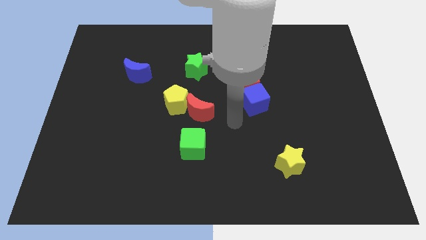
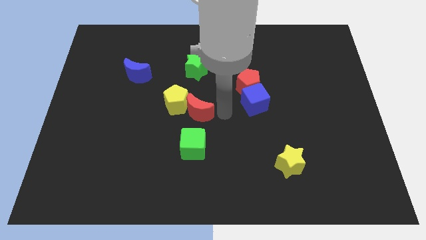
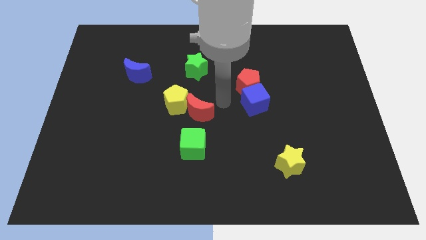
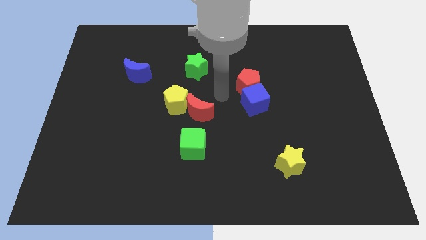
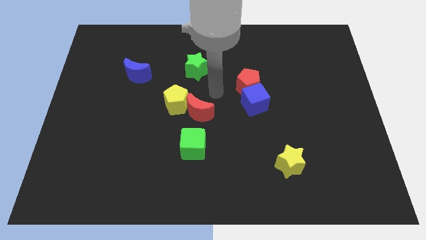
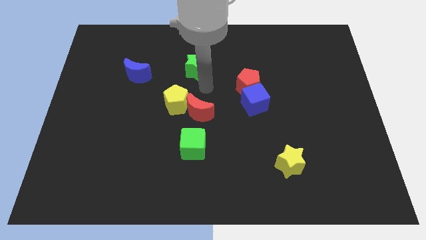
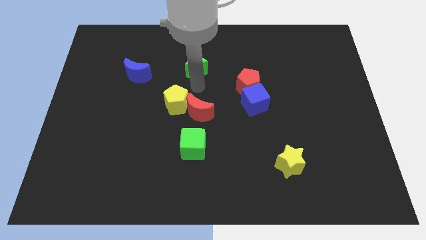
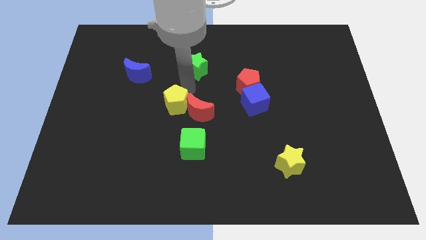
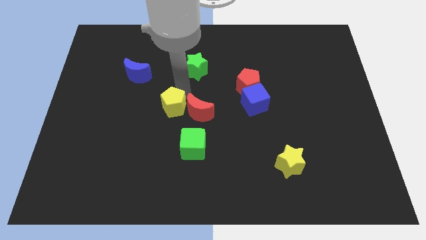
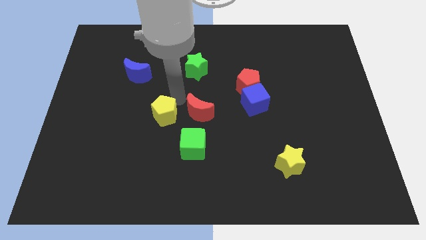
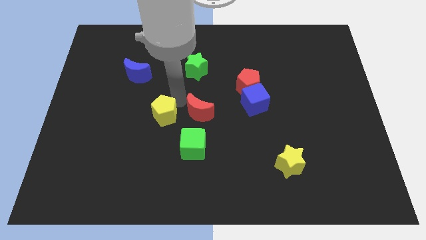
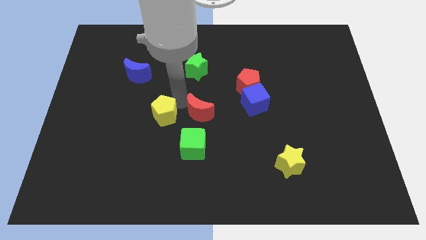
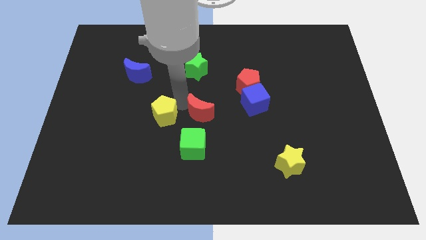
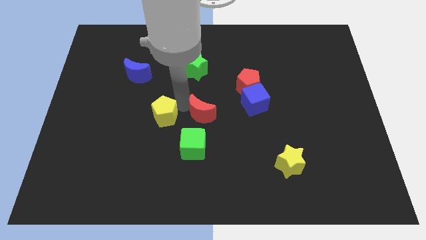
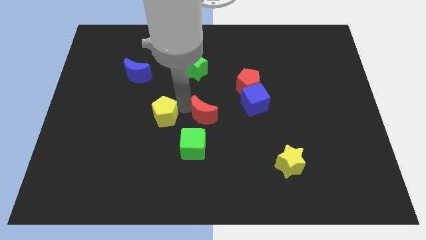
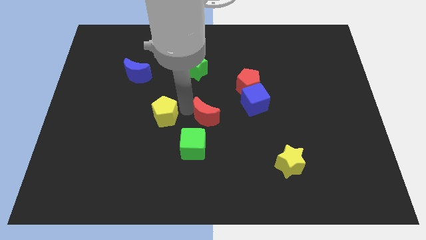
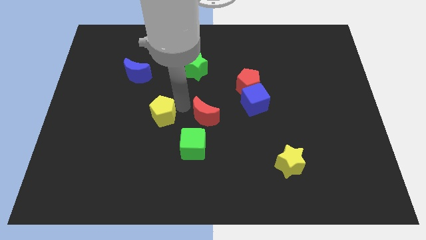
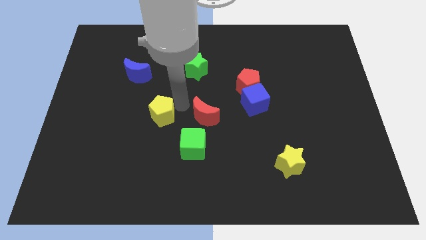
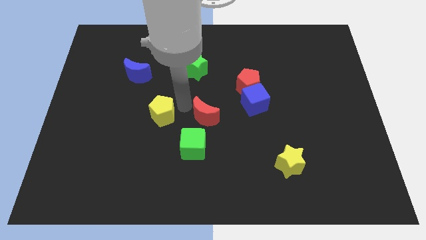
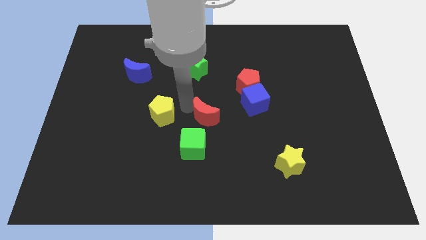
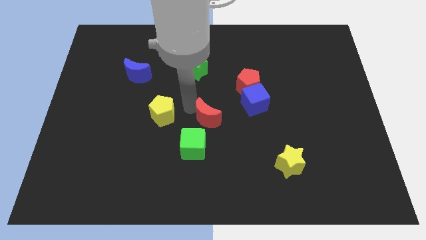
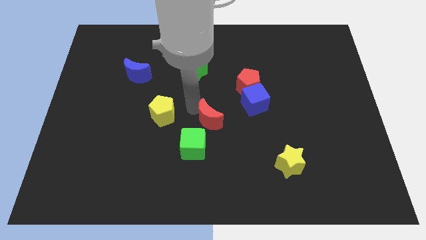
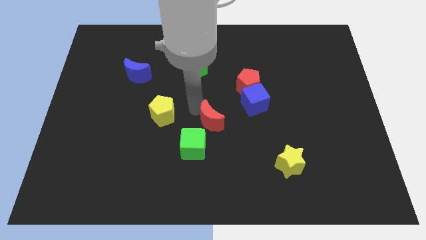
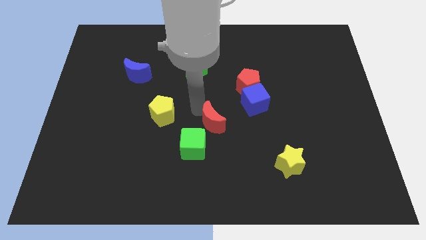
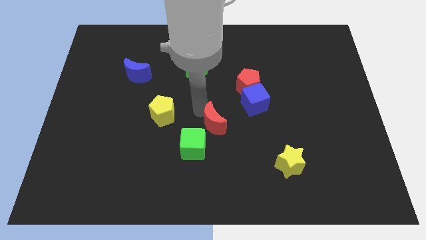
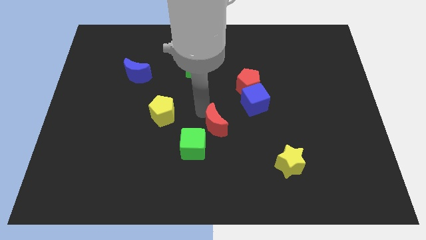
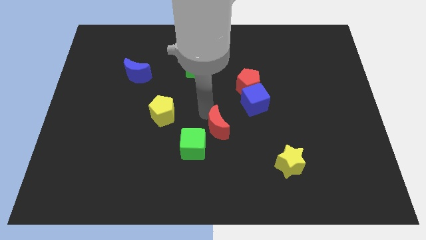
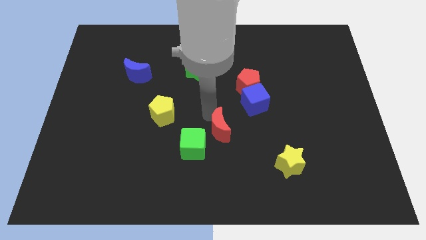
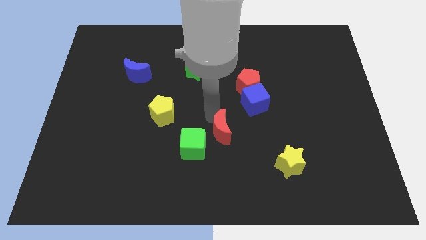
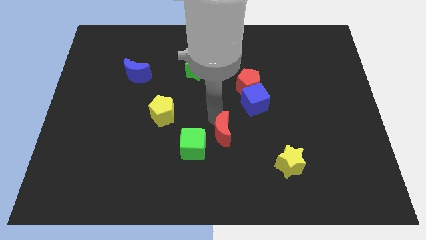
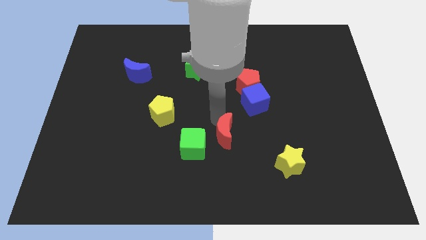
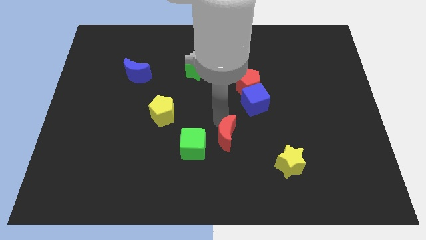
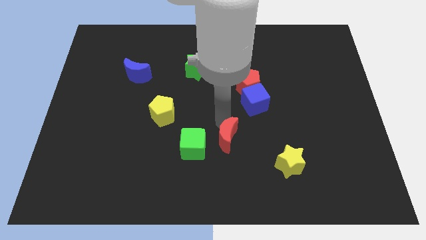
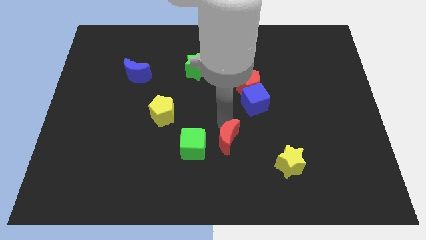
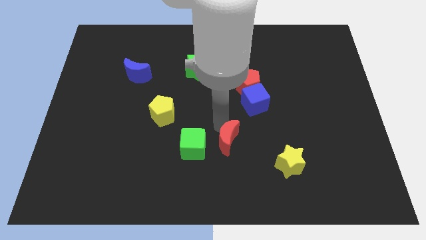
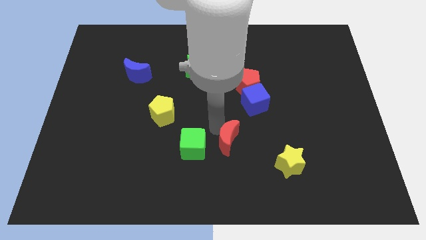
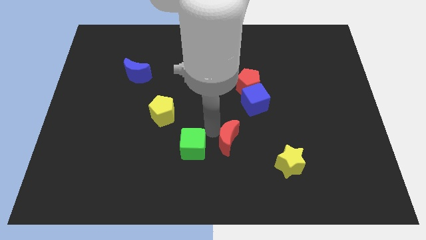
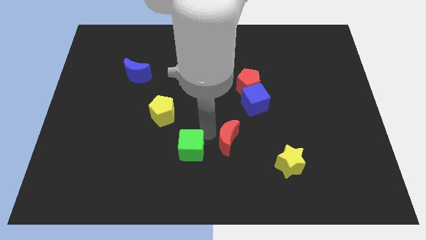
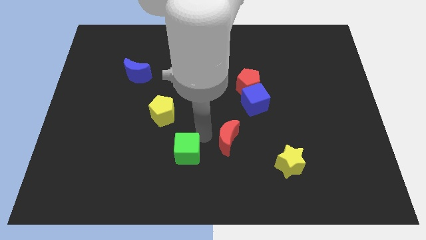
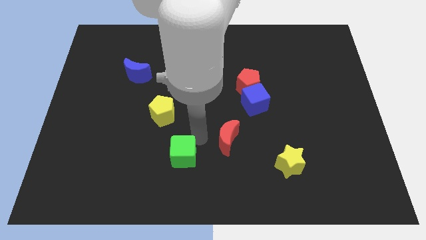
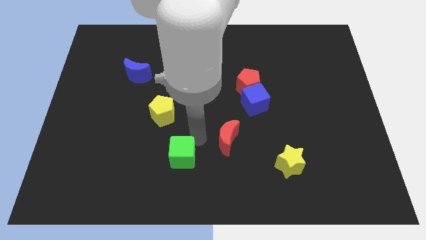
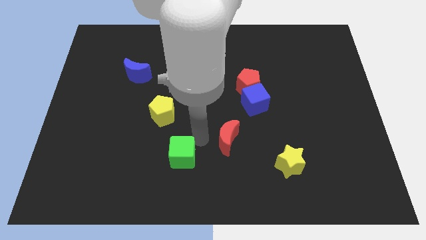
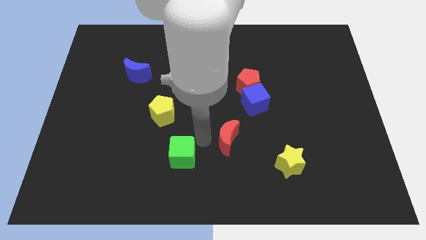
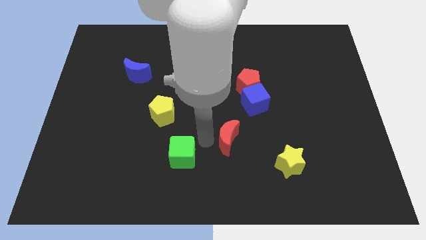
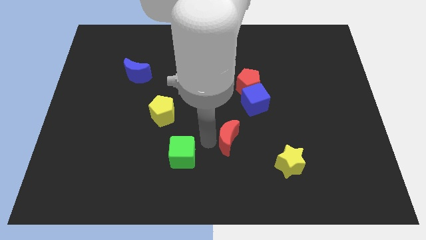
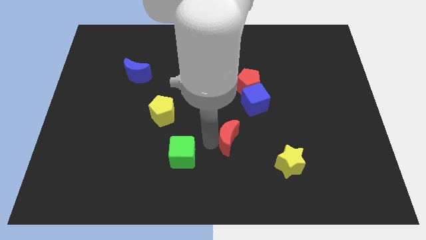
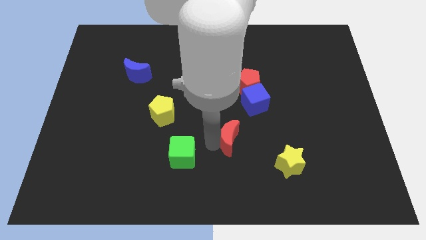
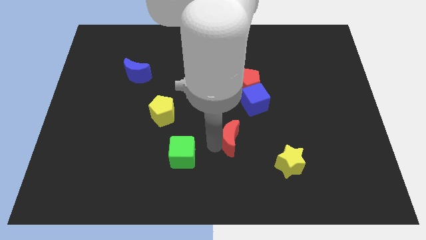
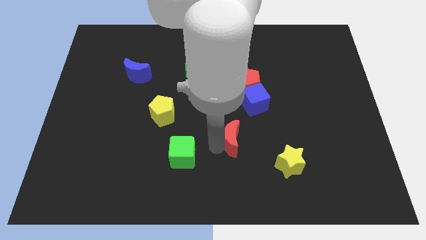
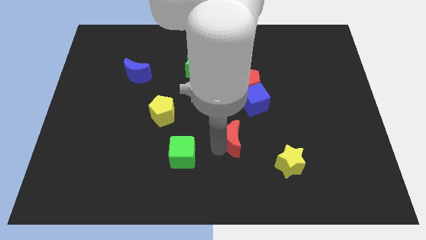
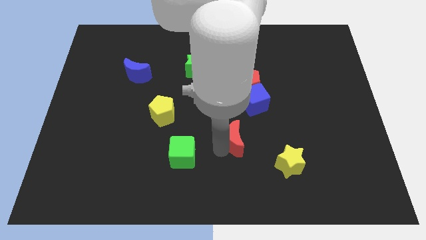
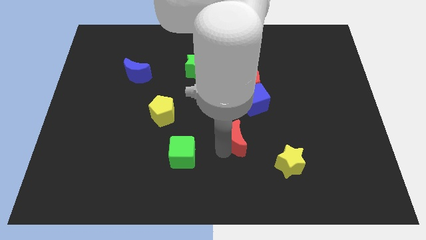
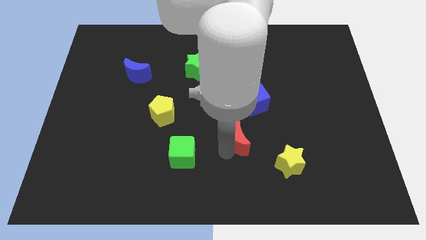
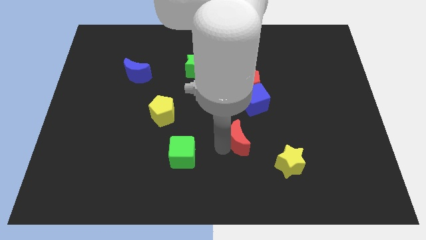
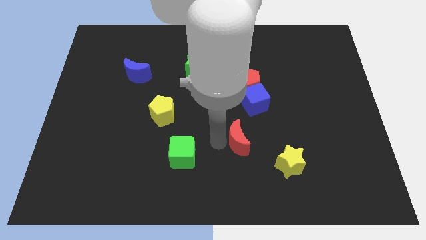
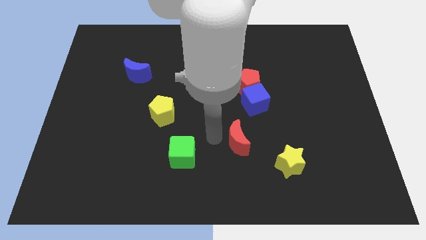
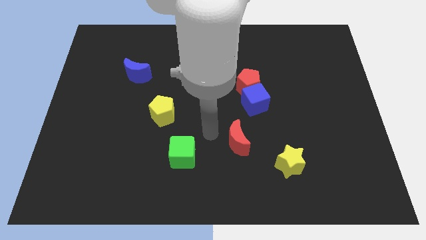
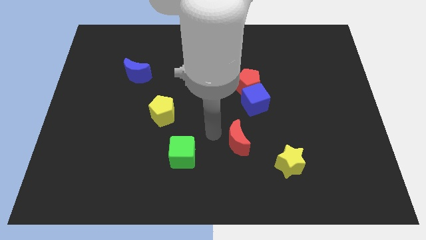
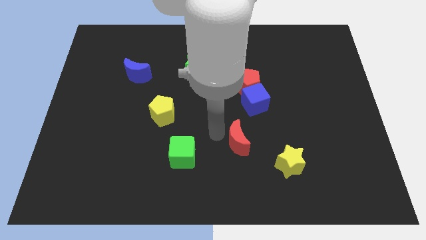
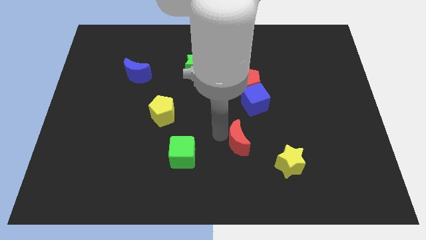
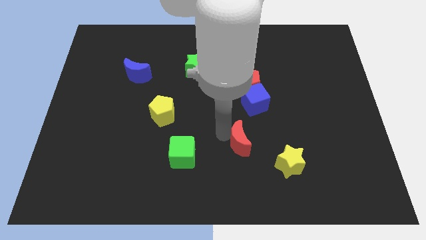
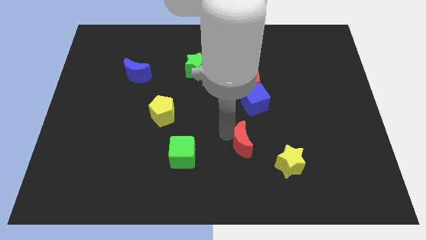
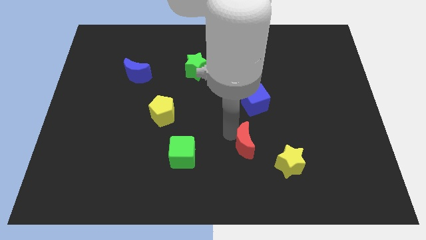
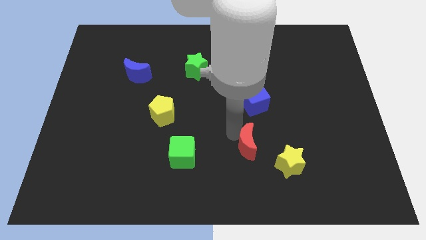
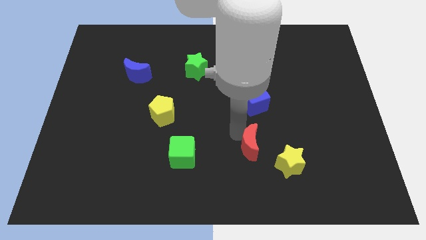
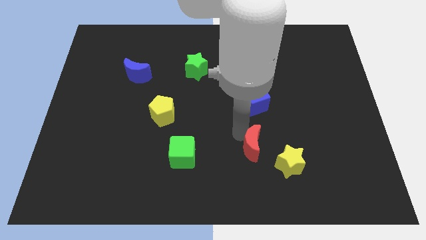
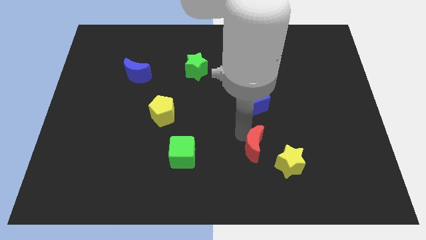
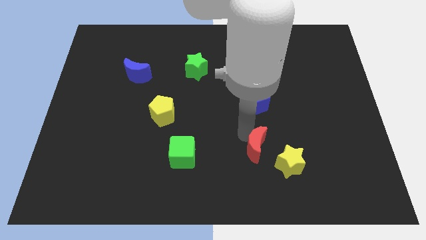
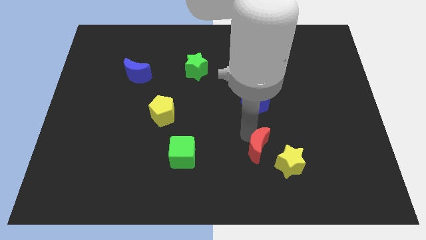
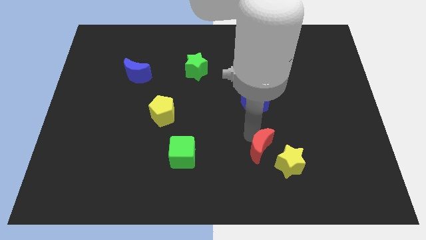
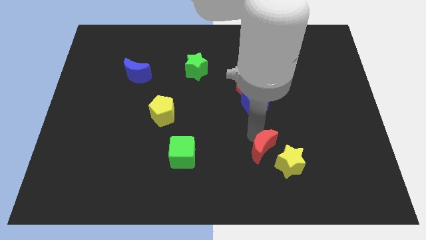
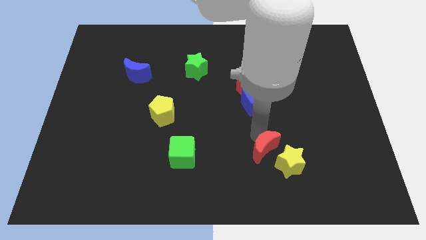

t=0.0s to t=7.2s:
push the red moon towards the yellow star
